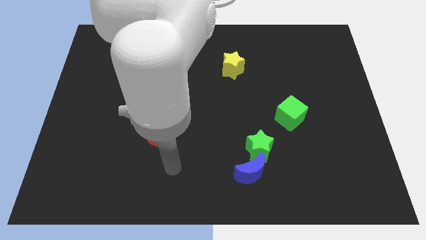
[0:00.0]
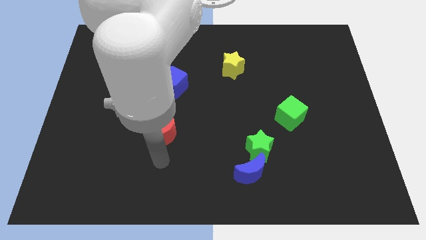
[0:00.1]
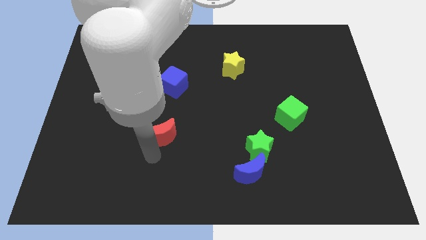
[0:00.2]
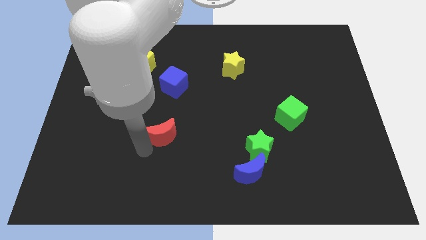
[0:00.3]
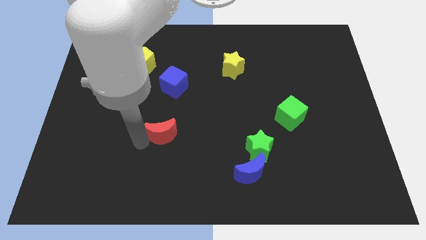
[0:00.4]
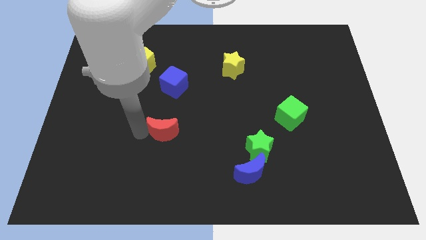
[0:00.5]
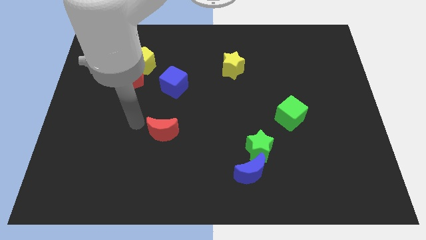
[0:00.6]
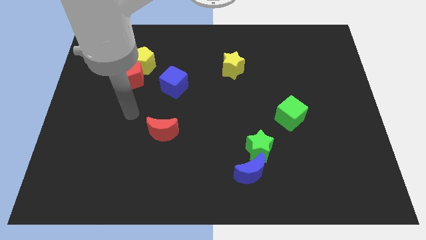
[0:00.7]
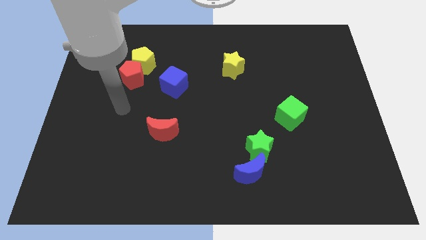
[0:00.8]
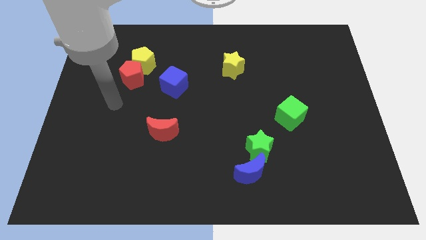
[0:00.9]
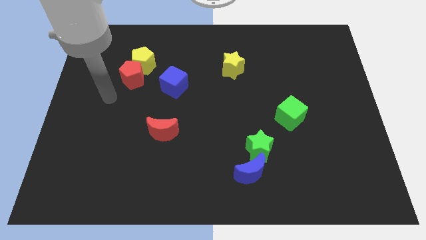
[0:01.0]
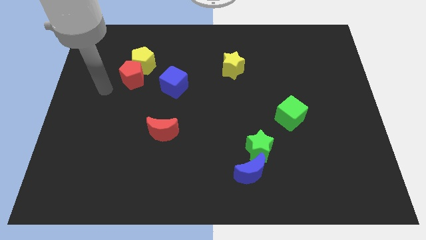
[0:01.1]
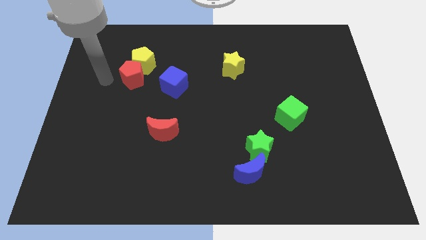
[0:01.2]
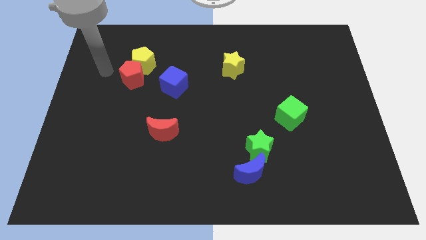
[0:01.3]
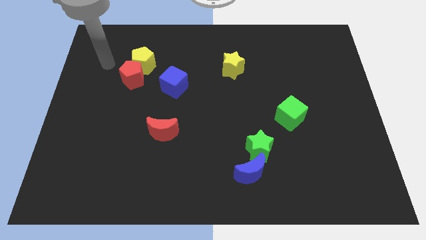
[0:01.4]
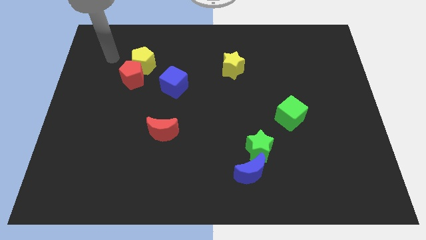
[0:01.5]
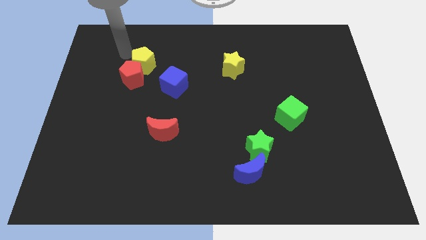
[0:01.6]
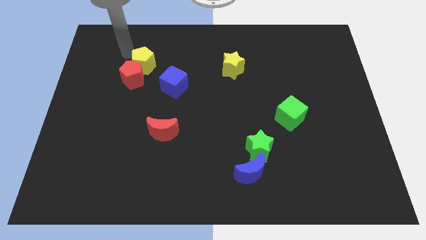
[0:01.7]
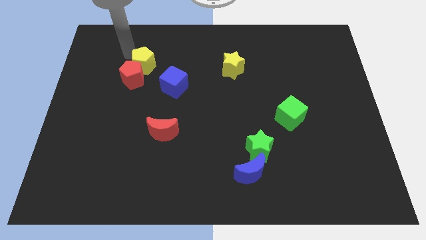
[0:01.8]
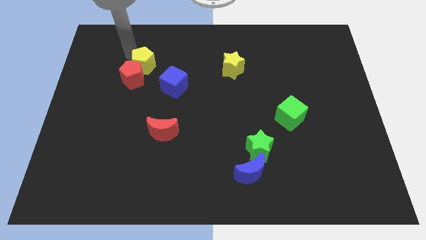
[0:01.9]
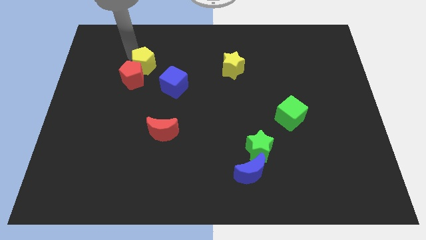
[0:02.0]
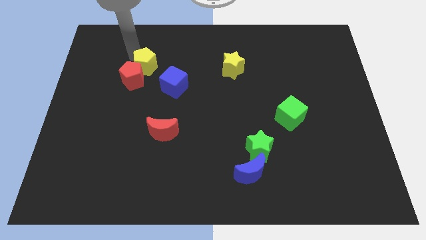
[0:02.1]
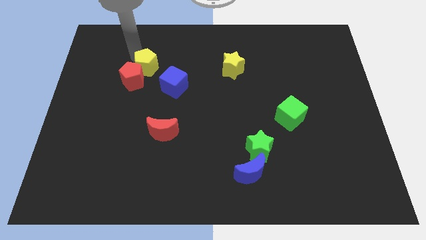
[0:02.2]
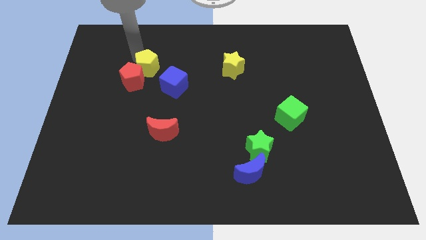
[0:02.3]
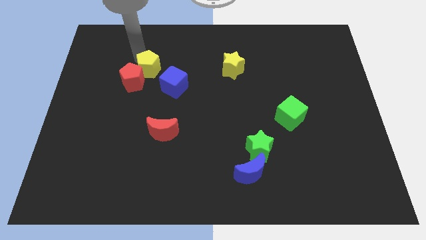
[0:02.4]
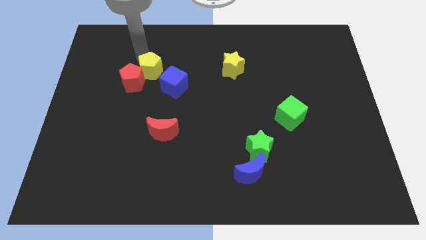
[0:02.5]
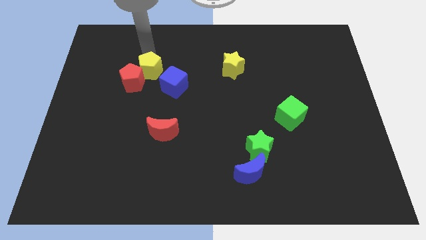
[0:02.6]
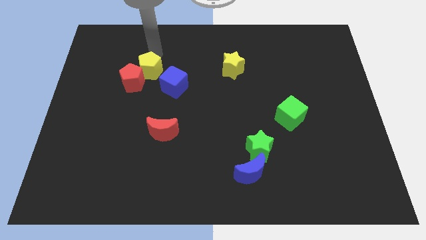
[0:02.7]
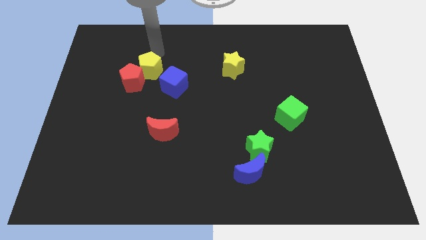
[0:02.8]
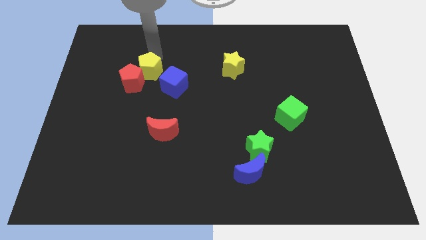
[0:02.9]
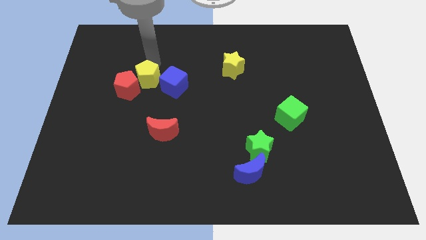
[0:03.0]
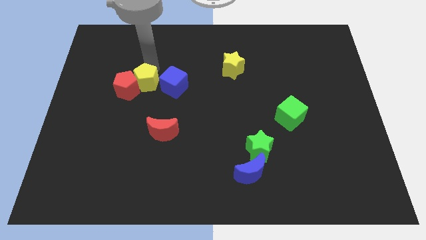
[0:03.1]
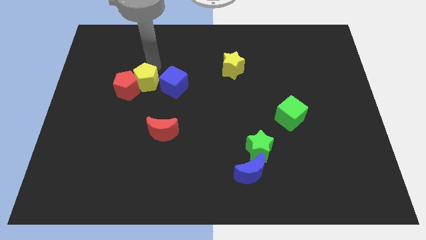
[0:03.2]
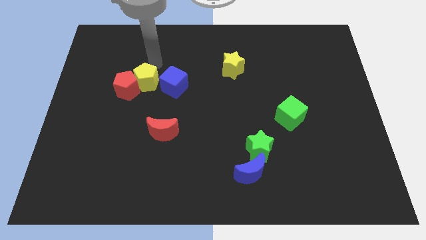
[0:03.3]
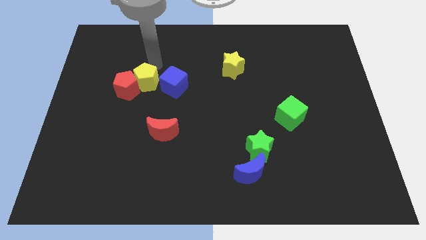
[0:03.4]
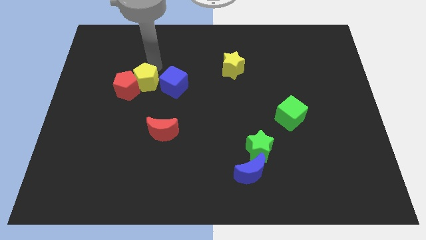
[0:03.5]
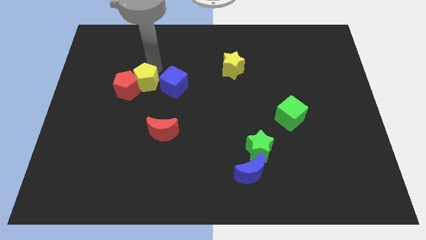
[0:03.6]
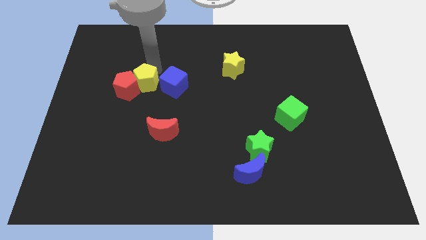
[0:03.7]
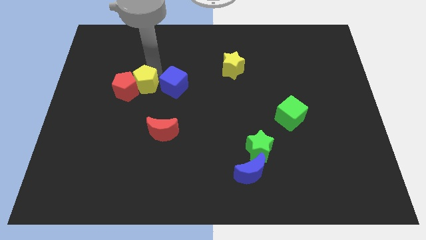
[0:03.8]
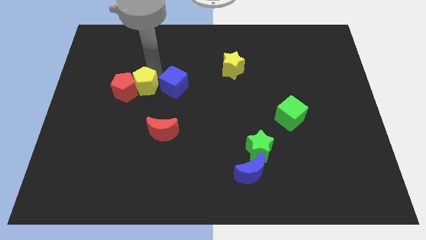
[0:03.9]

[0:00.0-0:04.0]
move the yellow pentagon downwards a bit

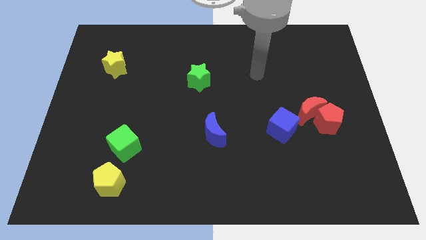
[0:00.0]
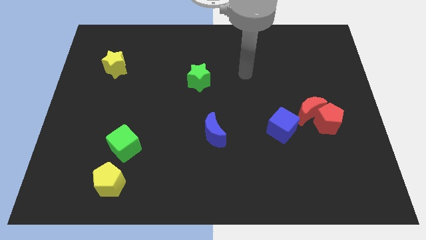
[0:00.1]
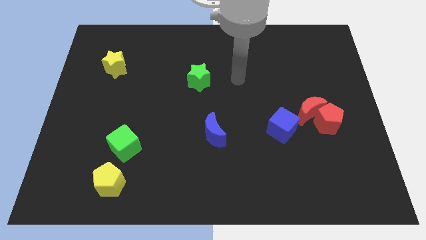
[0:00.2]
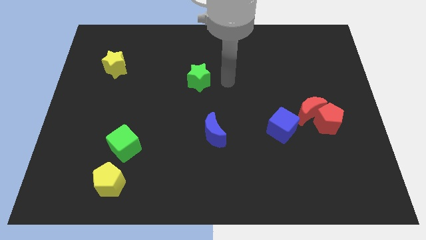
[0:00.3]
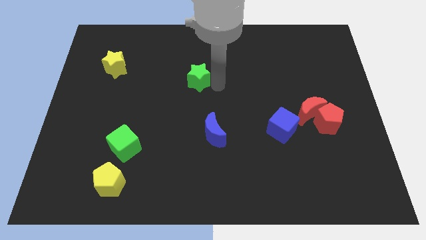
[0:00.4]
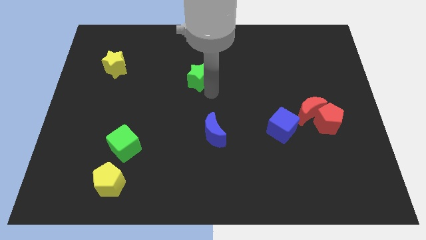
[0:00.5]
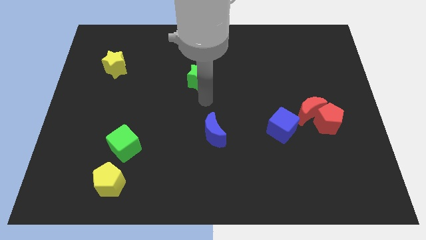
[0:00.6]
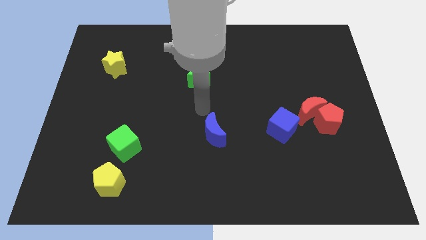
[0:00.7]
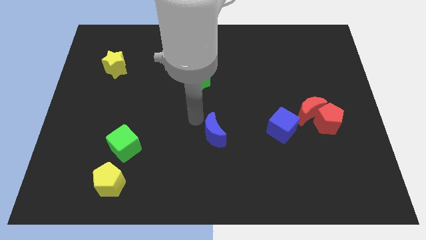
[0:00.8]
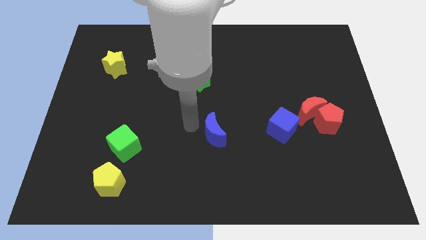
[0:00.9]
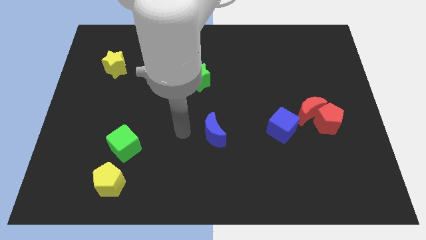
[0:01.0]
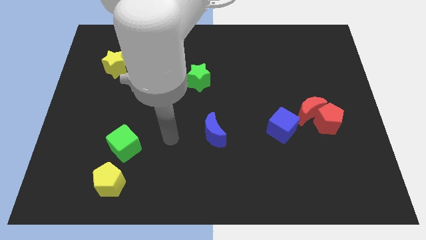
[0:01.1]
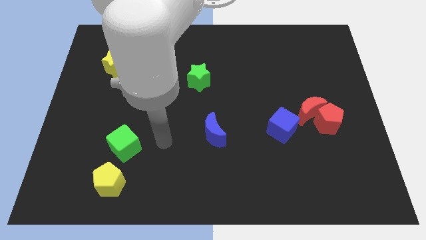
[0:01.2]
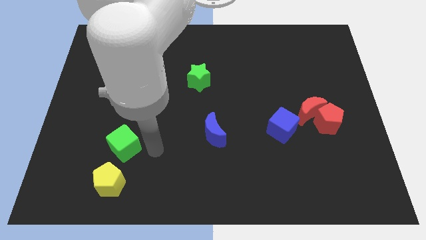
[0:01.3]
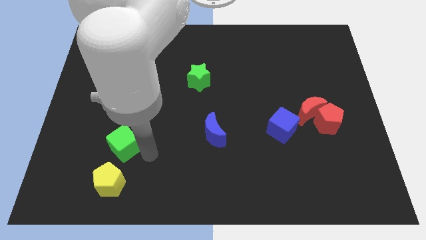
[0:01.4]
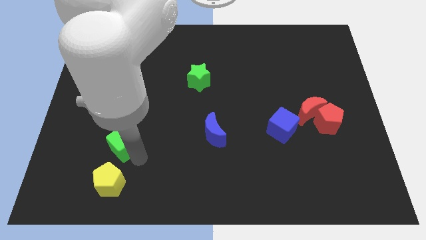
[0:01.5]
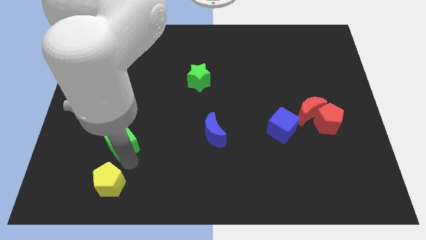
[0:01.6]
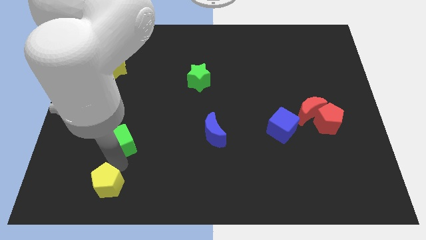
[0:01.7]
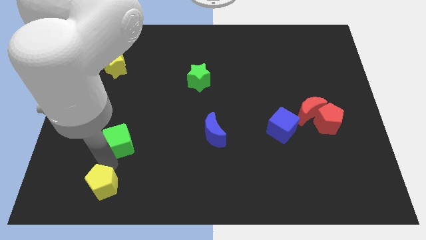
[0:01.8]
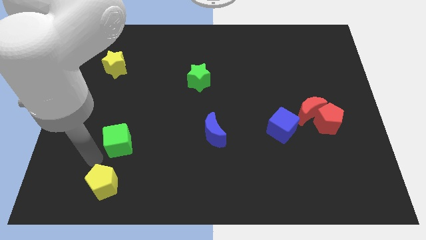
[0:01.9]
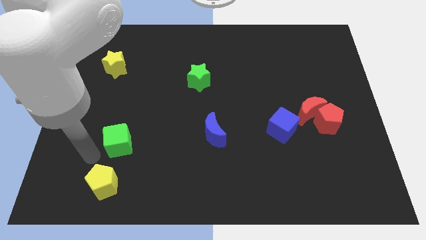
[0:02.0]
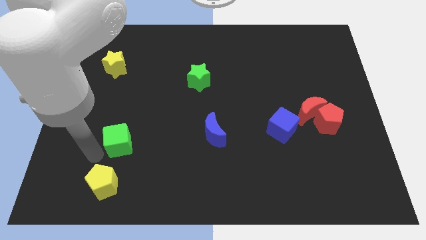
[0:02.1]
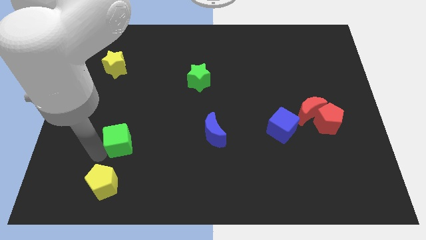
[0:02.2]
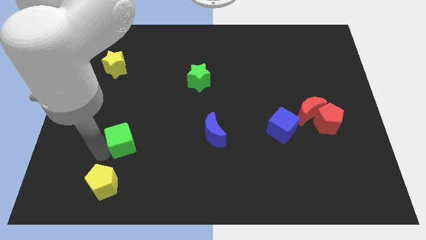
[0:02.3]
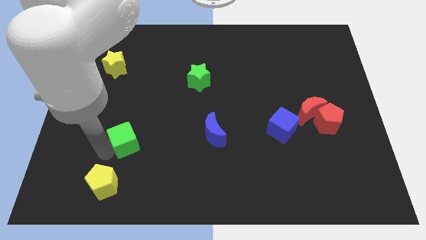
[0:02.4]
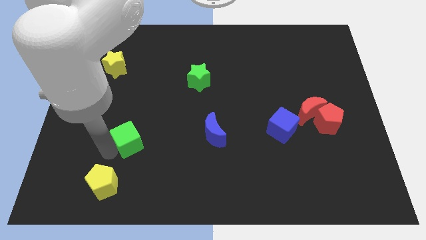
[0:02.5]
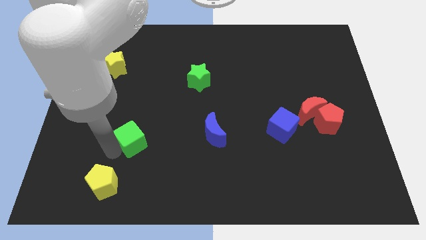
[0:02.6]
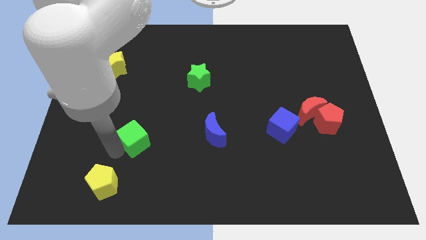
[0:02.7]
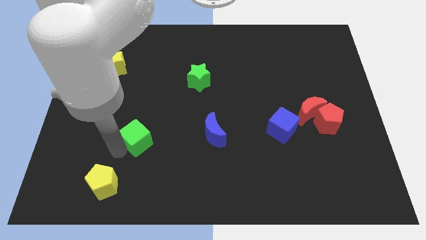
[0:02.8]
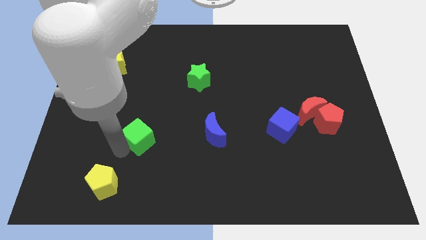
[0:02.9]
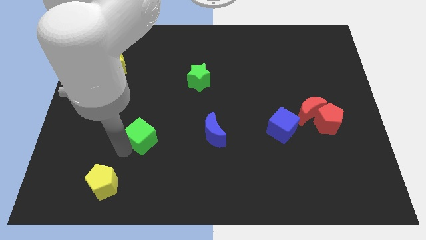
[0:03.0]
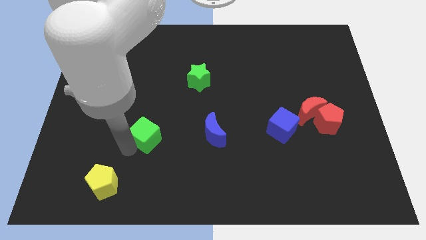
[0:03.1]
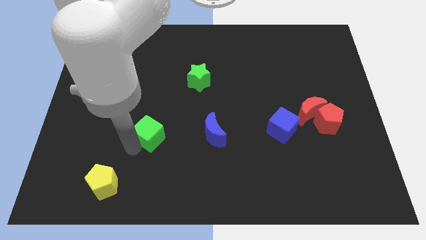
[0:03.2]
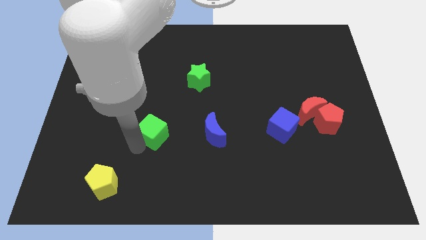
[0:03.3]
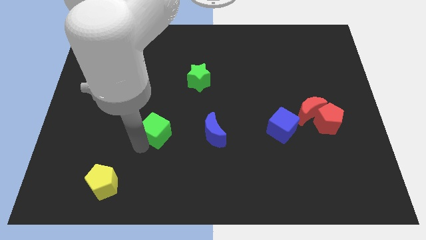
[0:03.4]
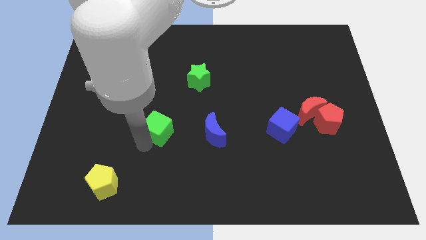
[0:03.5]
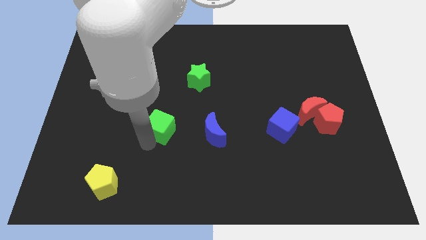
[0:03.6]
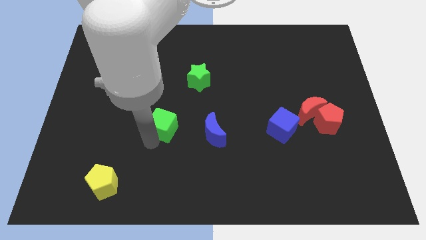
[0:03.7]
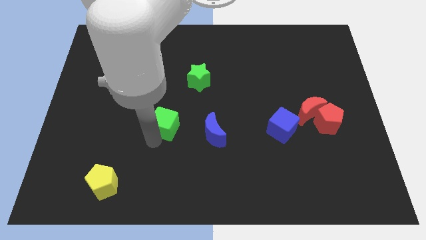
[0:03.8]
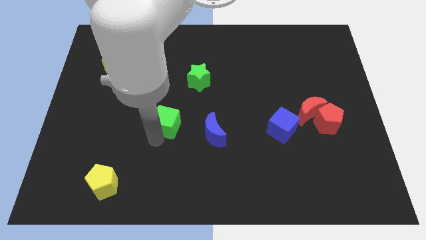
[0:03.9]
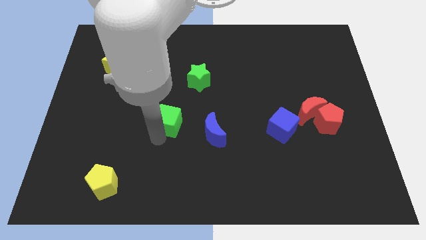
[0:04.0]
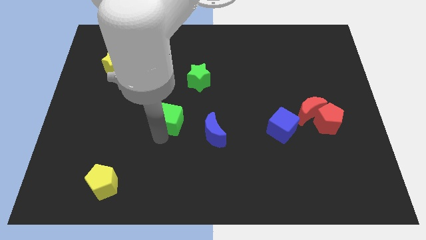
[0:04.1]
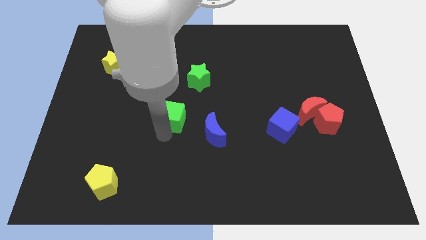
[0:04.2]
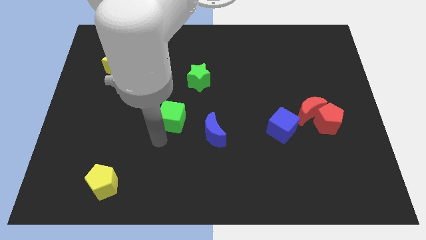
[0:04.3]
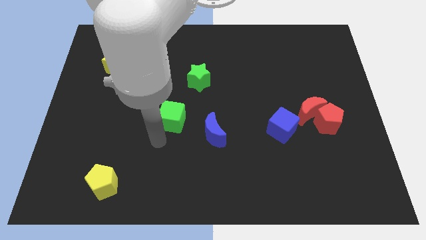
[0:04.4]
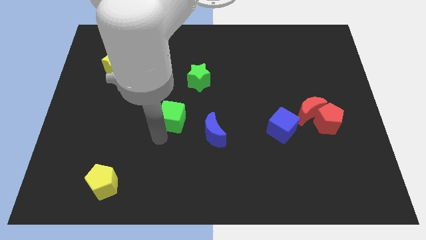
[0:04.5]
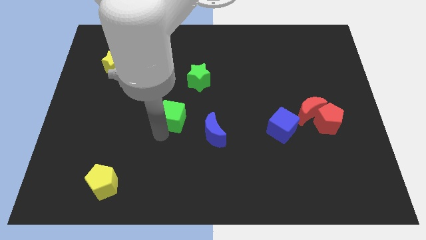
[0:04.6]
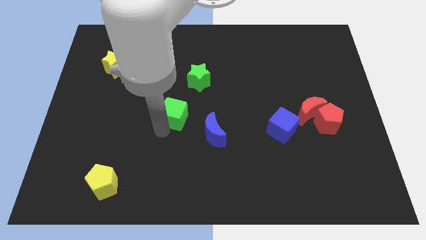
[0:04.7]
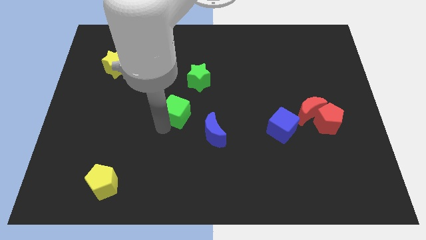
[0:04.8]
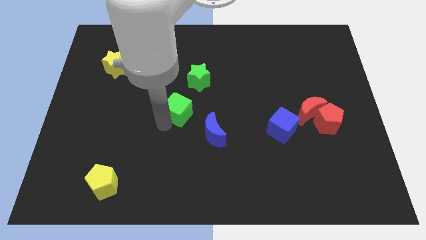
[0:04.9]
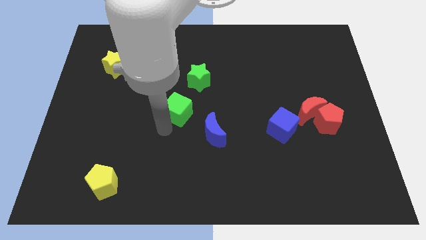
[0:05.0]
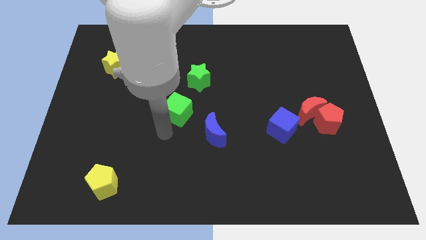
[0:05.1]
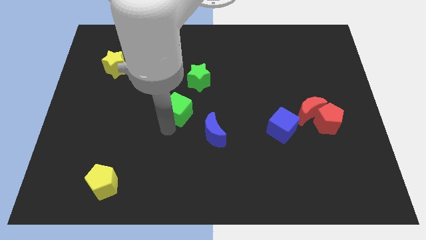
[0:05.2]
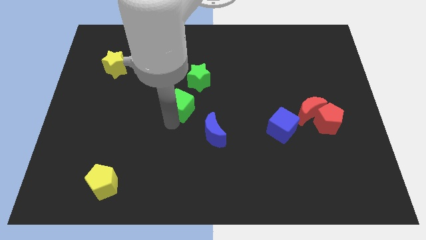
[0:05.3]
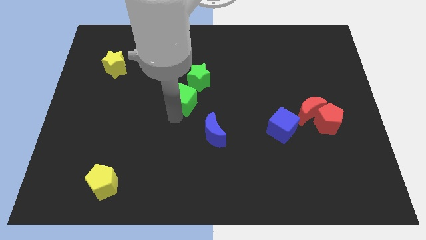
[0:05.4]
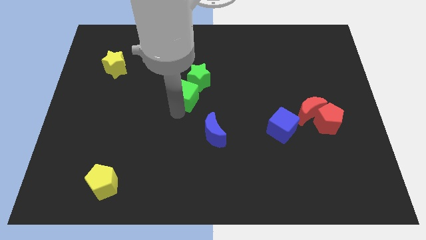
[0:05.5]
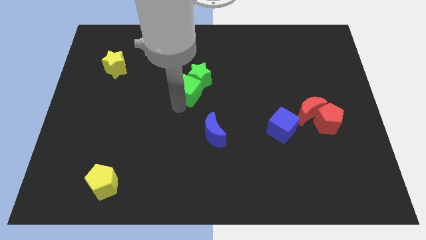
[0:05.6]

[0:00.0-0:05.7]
push the green cube upwards and then right
